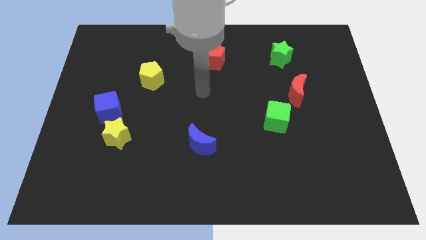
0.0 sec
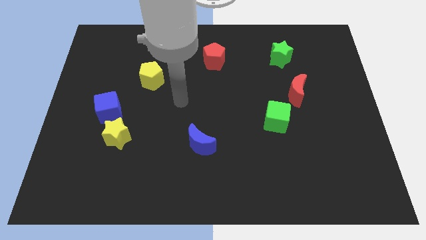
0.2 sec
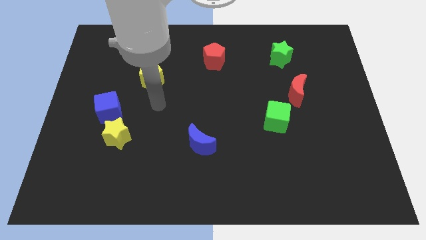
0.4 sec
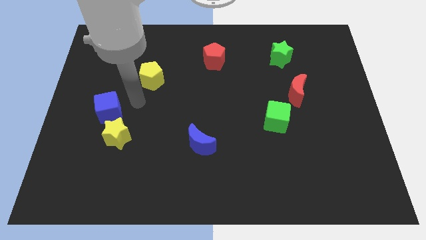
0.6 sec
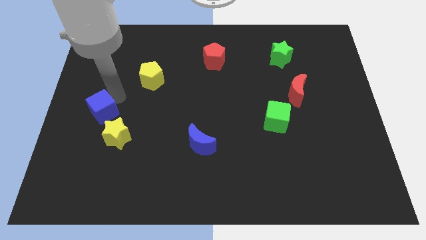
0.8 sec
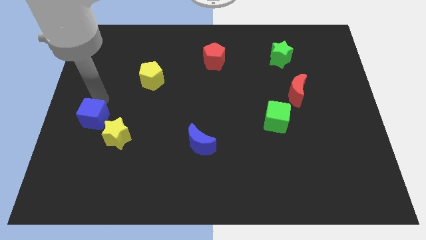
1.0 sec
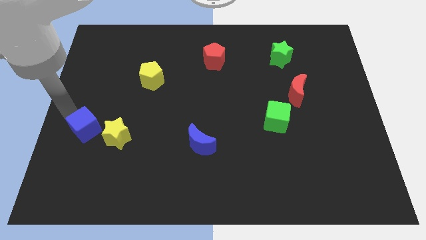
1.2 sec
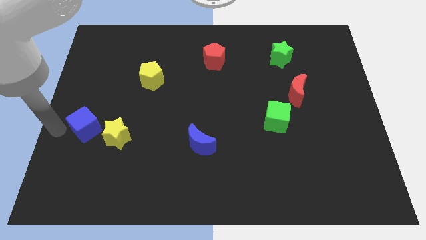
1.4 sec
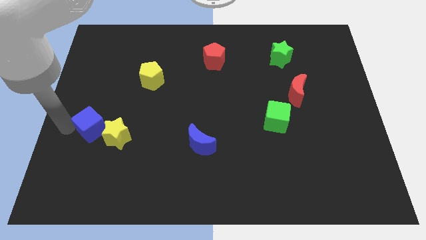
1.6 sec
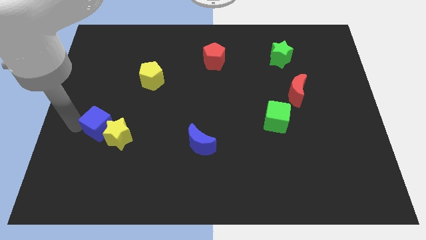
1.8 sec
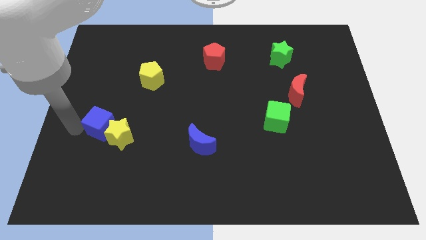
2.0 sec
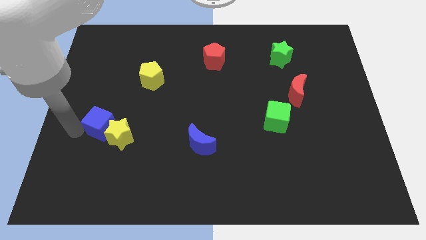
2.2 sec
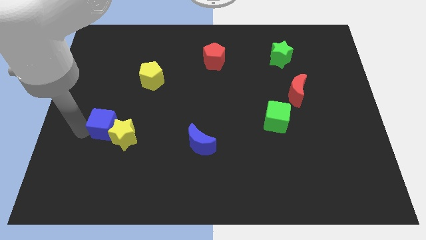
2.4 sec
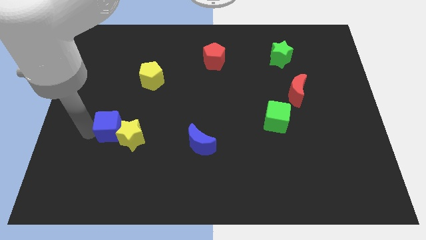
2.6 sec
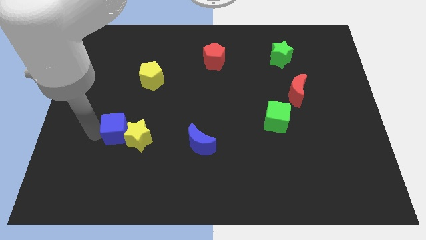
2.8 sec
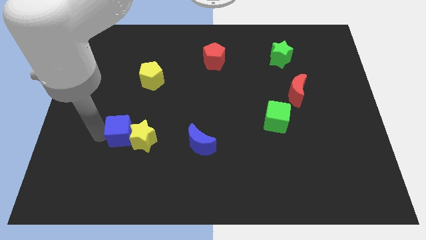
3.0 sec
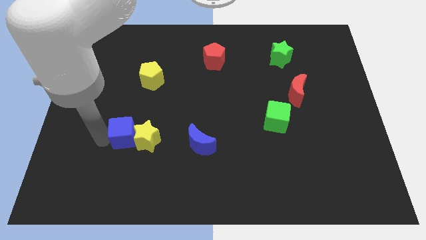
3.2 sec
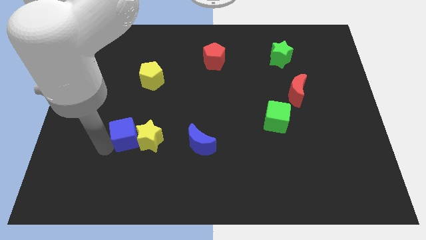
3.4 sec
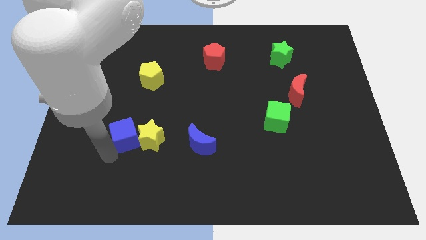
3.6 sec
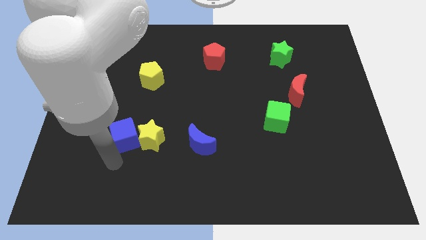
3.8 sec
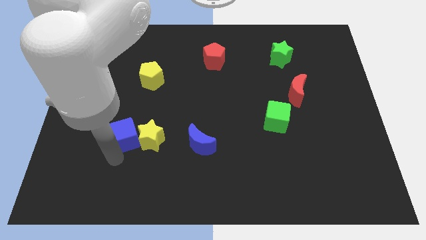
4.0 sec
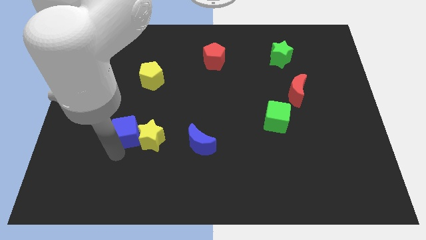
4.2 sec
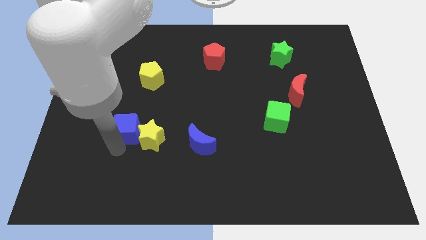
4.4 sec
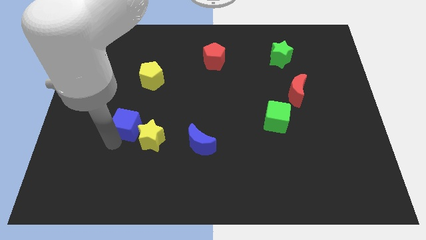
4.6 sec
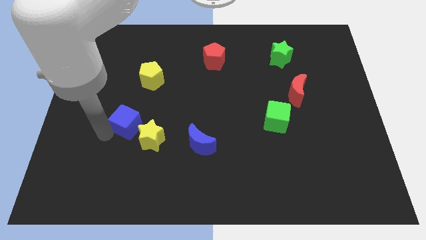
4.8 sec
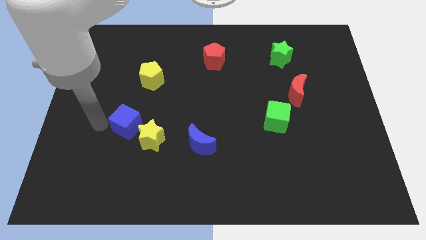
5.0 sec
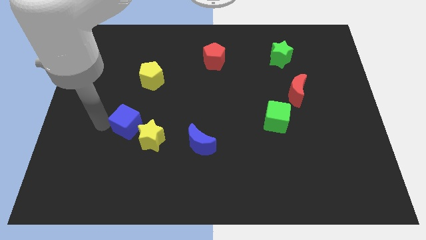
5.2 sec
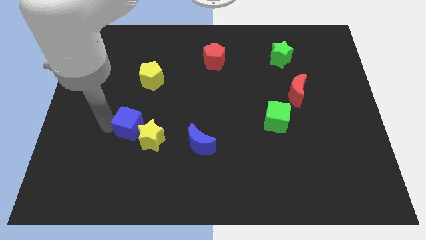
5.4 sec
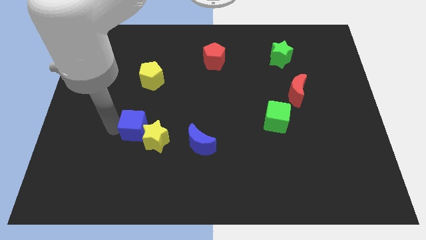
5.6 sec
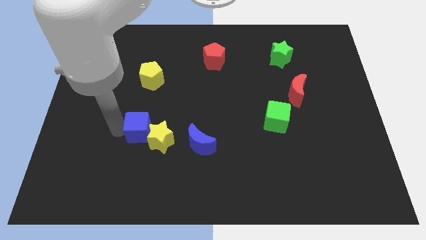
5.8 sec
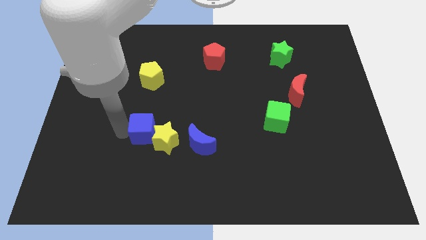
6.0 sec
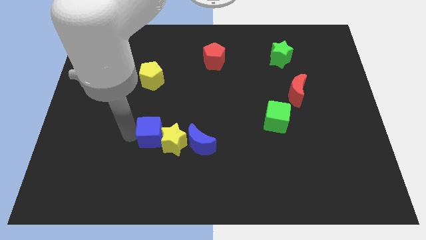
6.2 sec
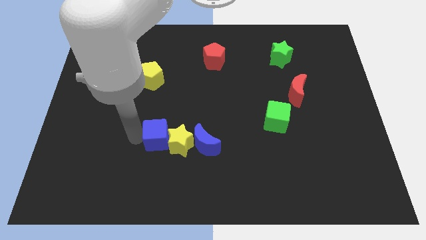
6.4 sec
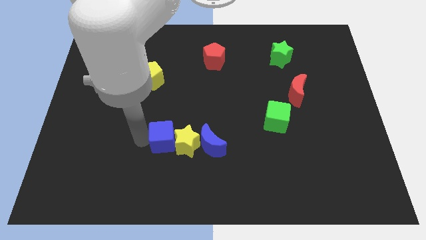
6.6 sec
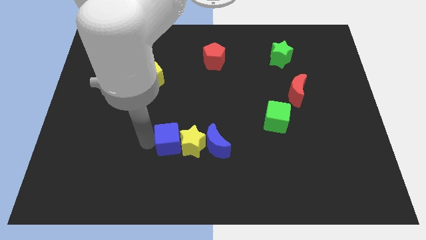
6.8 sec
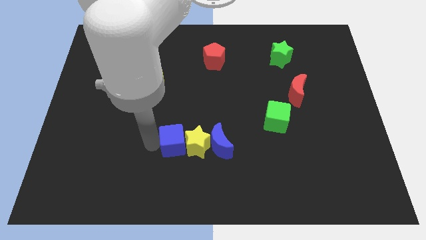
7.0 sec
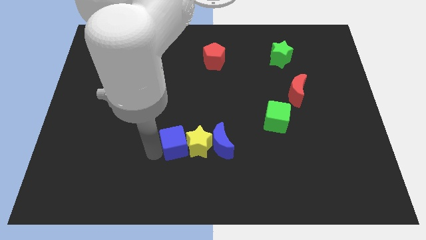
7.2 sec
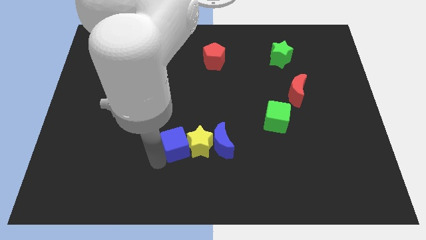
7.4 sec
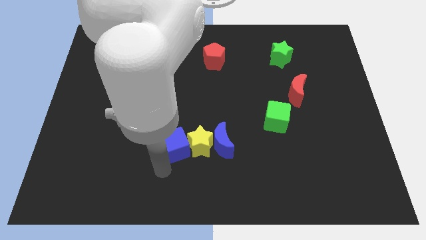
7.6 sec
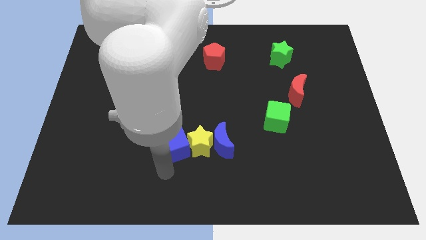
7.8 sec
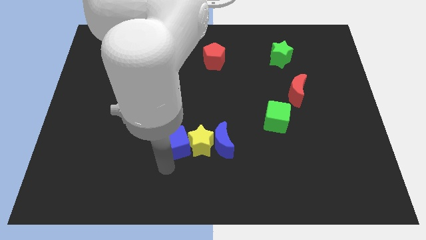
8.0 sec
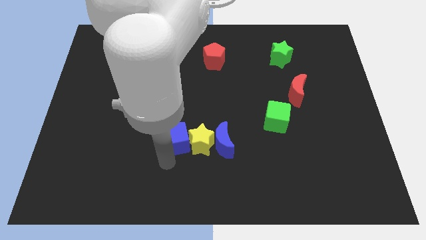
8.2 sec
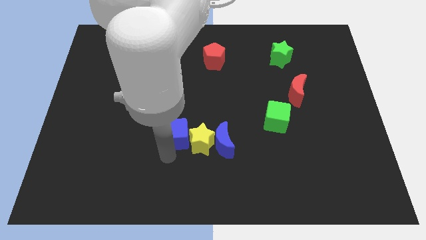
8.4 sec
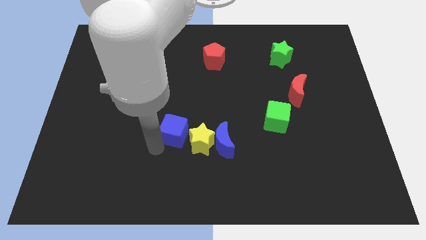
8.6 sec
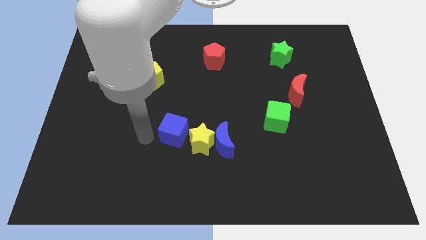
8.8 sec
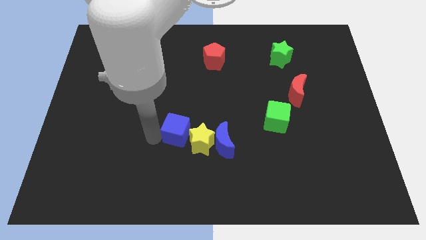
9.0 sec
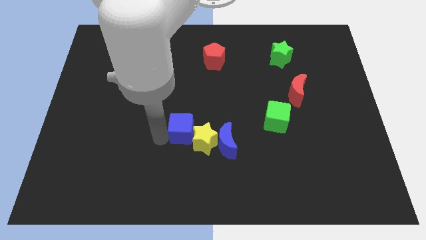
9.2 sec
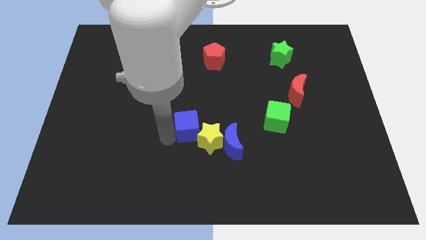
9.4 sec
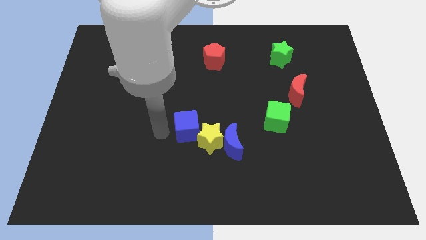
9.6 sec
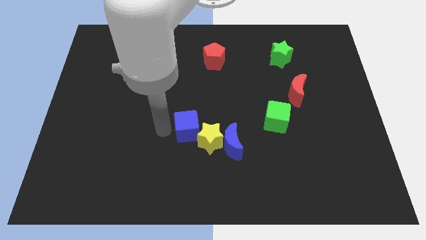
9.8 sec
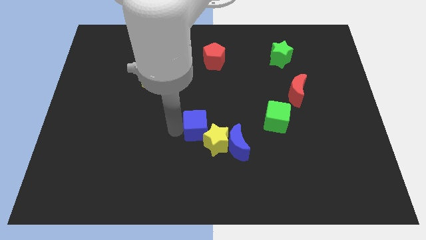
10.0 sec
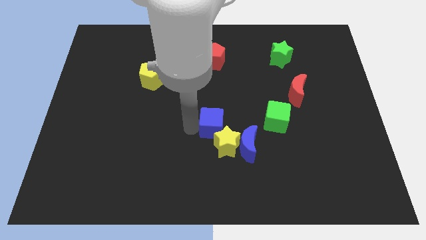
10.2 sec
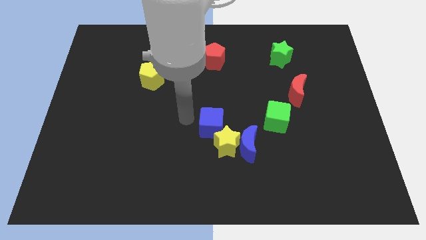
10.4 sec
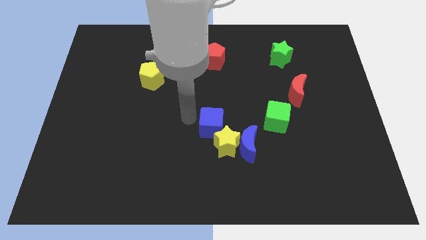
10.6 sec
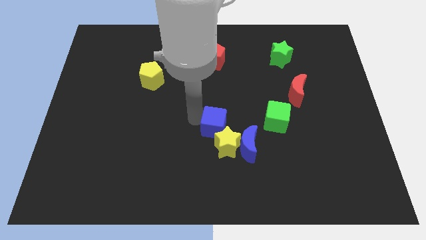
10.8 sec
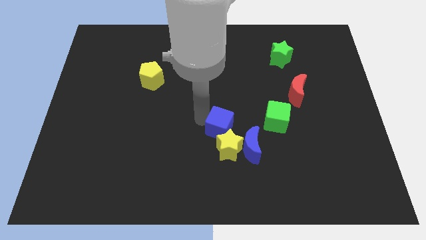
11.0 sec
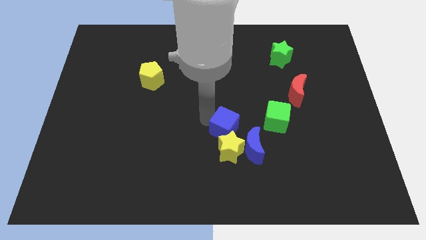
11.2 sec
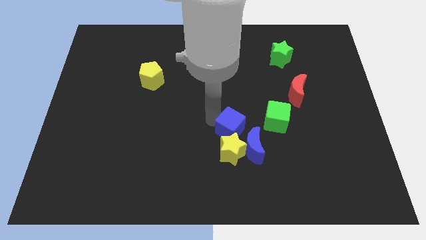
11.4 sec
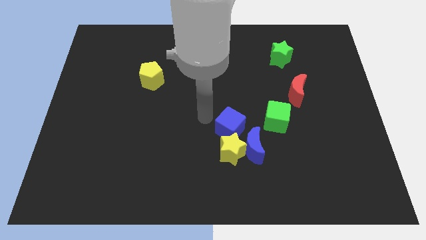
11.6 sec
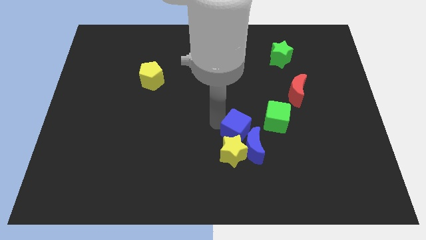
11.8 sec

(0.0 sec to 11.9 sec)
move the blue cube to the bottom left of the green cube

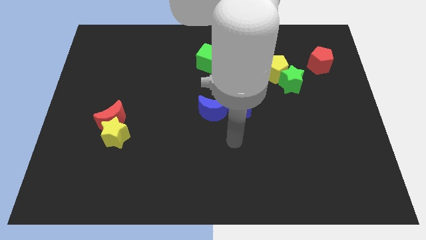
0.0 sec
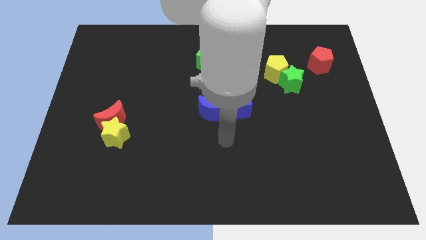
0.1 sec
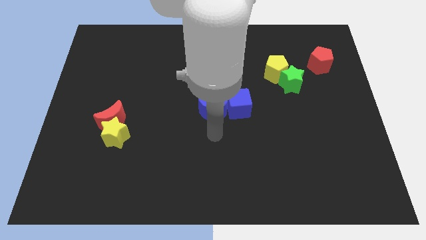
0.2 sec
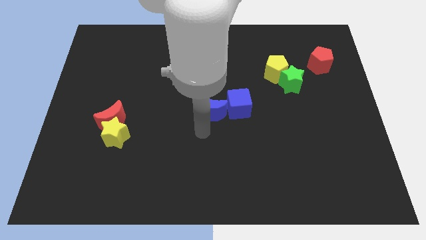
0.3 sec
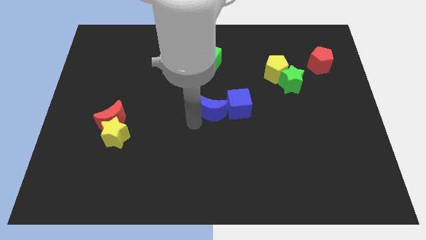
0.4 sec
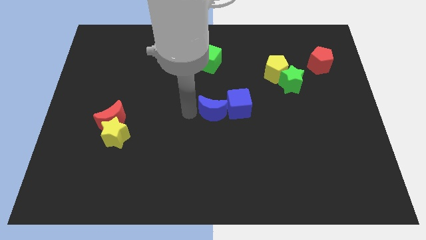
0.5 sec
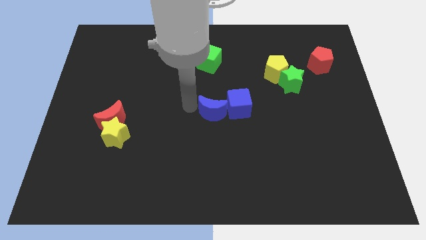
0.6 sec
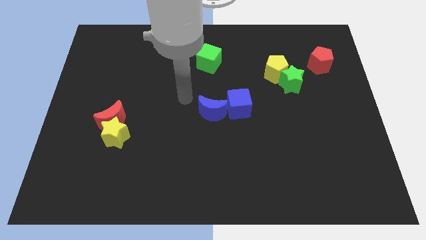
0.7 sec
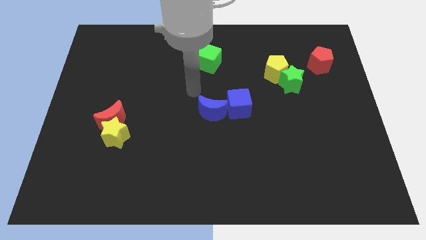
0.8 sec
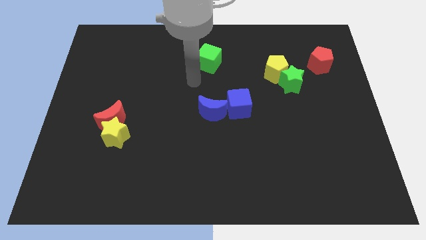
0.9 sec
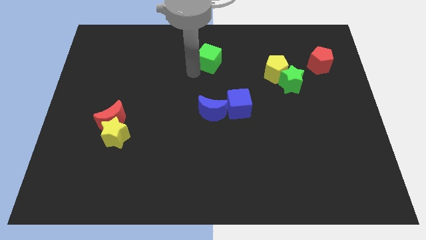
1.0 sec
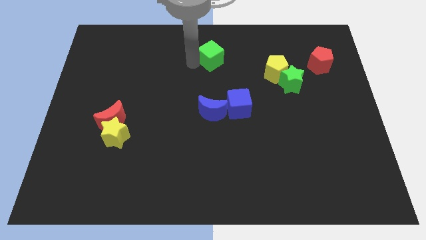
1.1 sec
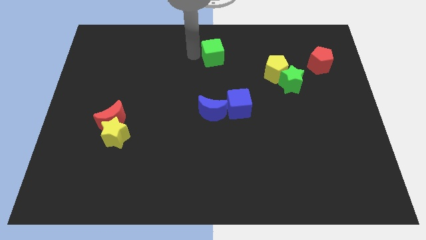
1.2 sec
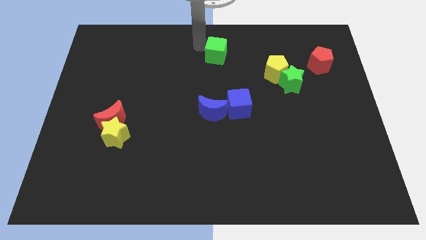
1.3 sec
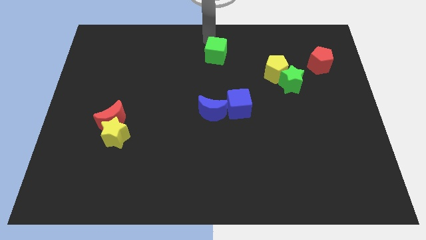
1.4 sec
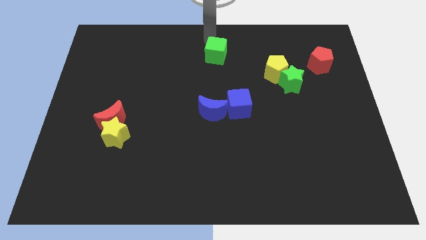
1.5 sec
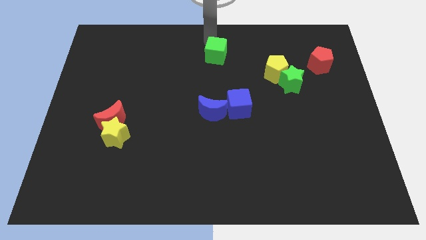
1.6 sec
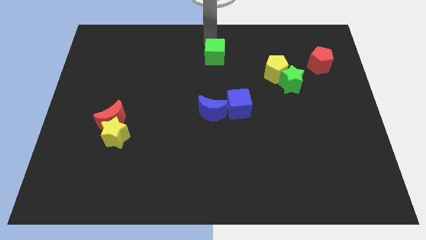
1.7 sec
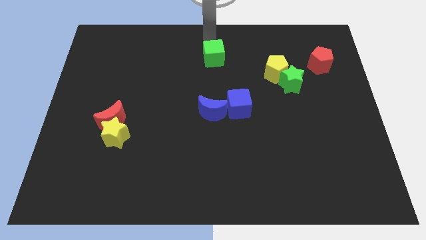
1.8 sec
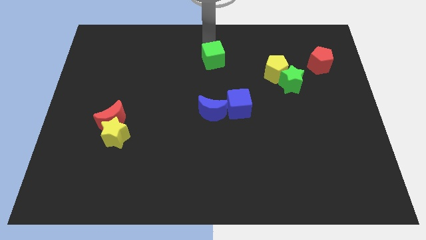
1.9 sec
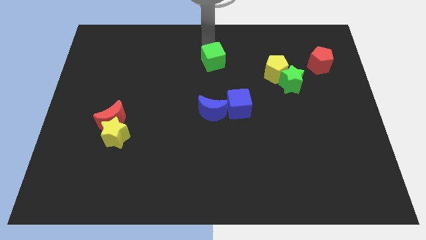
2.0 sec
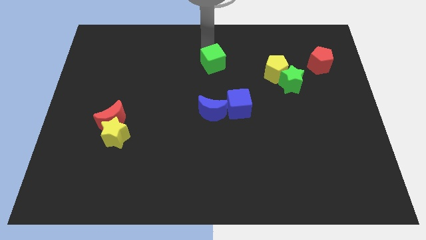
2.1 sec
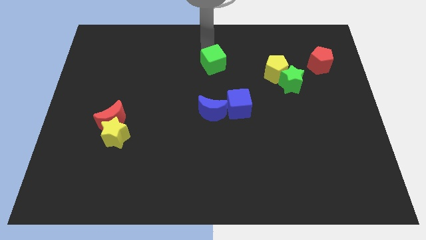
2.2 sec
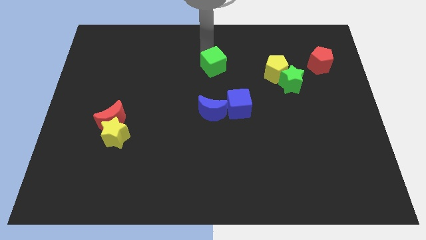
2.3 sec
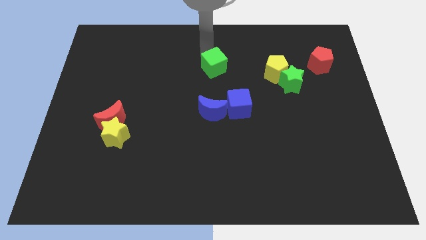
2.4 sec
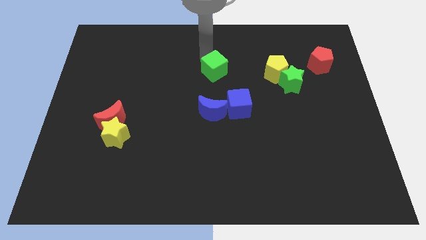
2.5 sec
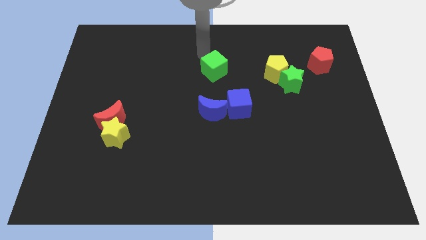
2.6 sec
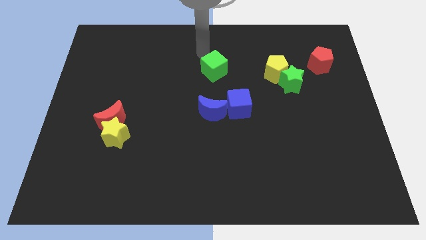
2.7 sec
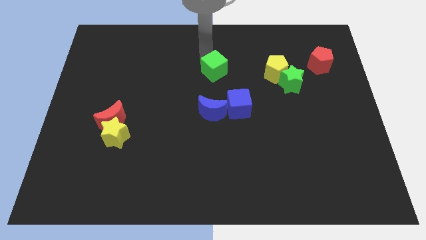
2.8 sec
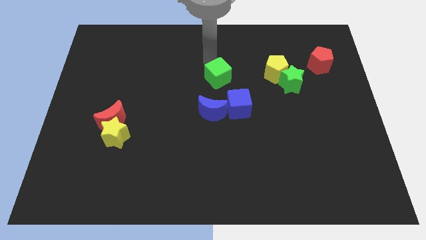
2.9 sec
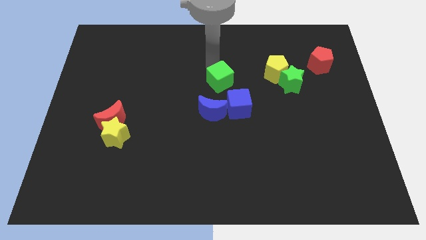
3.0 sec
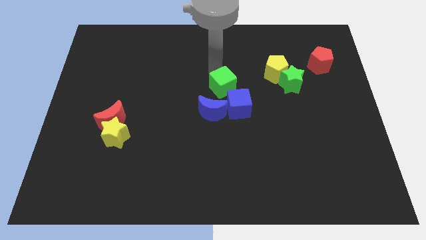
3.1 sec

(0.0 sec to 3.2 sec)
put the green cube to the top right of the blue moon
